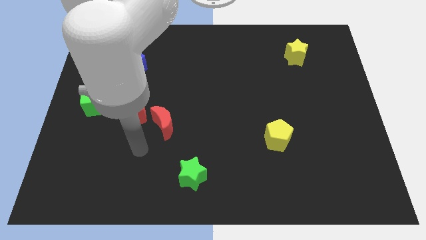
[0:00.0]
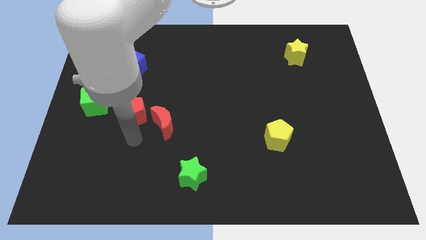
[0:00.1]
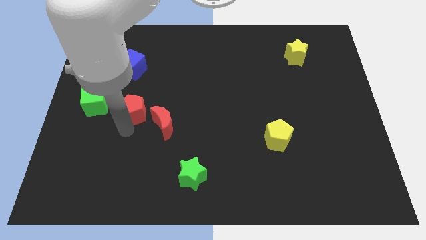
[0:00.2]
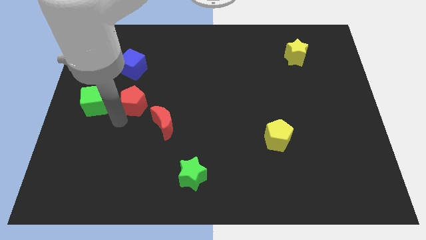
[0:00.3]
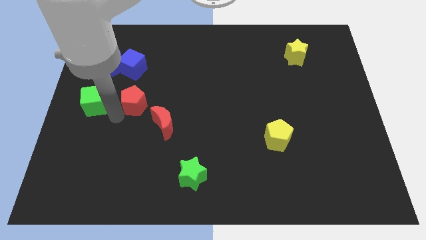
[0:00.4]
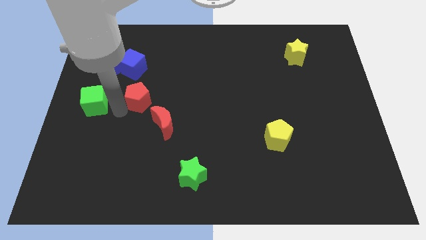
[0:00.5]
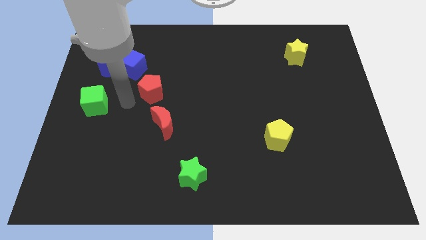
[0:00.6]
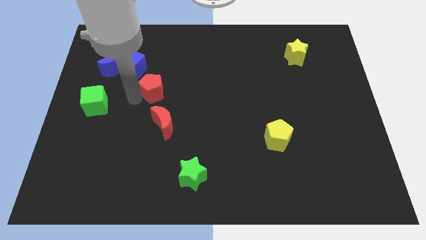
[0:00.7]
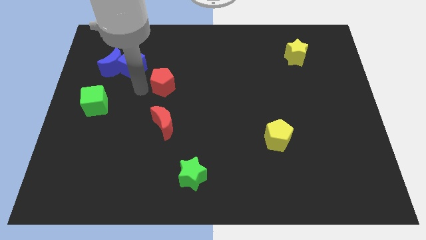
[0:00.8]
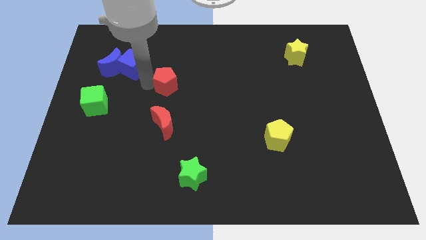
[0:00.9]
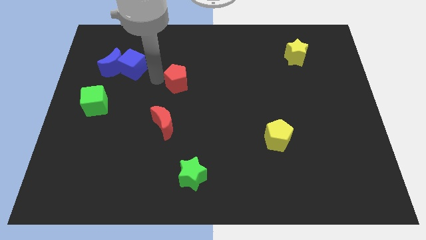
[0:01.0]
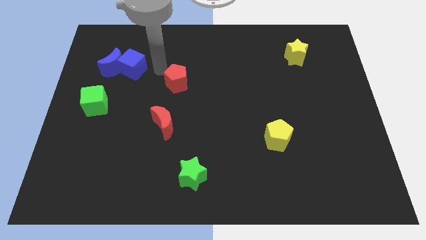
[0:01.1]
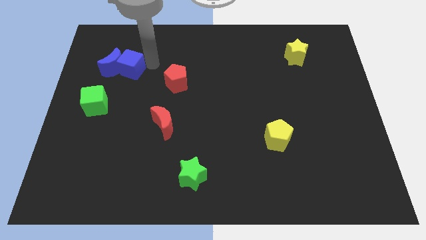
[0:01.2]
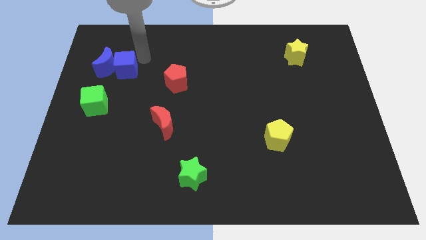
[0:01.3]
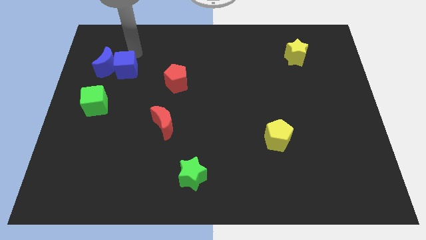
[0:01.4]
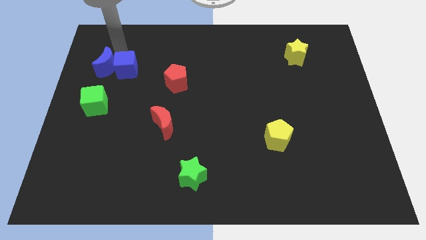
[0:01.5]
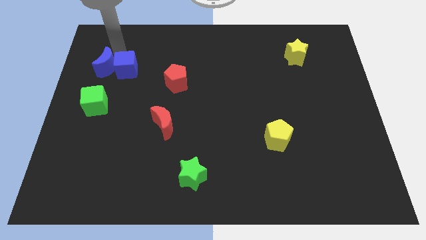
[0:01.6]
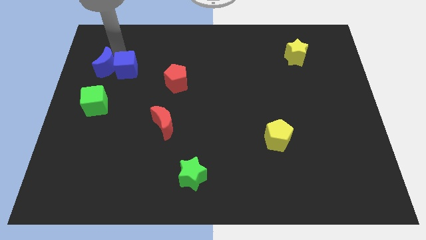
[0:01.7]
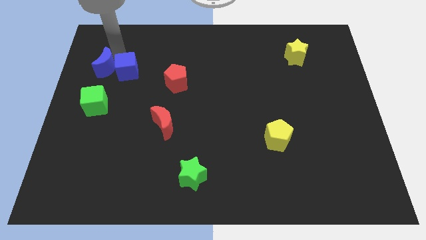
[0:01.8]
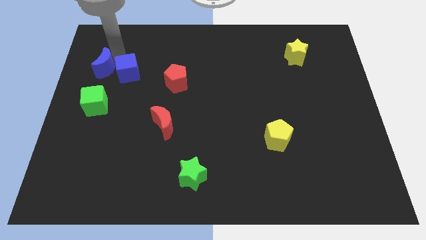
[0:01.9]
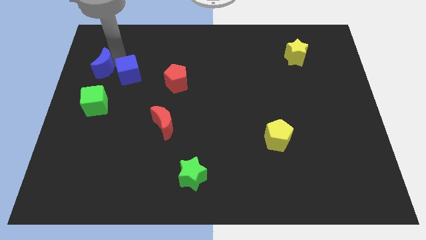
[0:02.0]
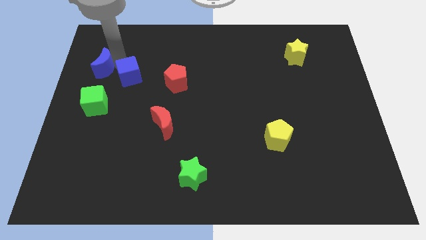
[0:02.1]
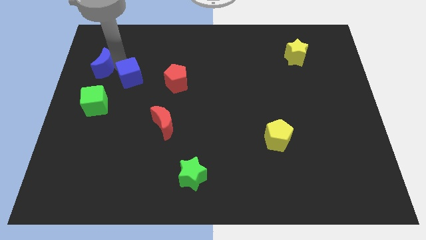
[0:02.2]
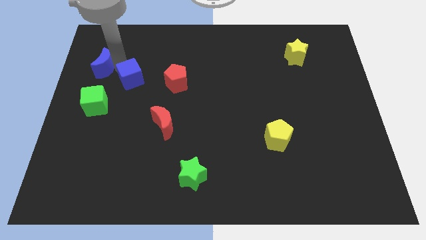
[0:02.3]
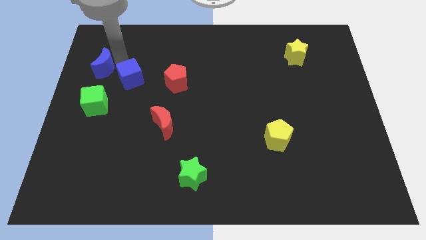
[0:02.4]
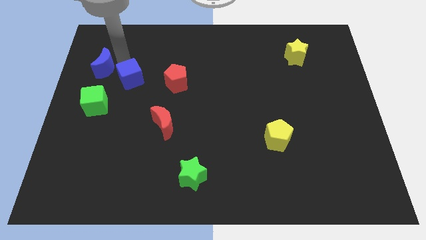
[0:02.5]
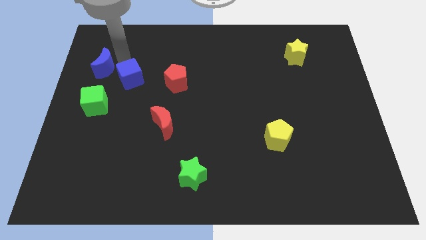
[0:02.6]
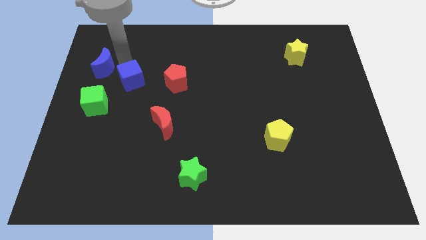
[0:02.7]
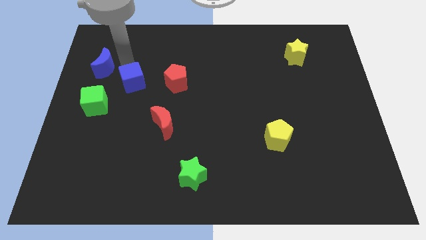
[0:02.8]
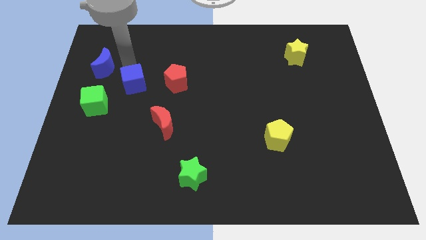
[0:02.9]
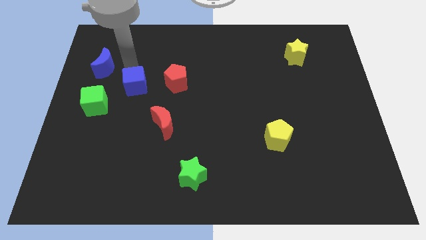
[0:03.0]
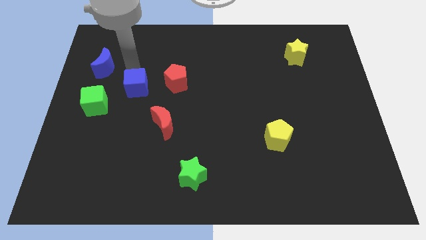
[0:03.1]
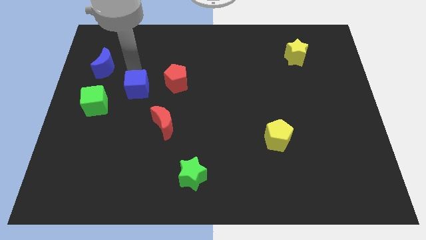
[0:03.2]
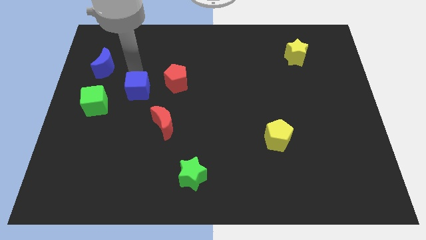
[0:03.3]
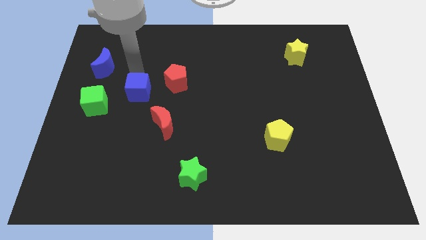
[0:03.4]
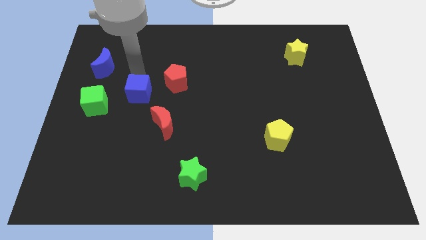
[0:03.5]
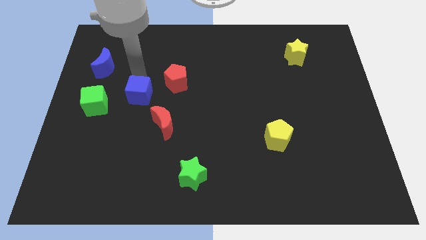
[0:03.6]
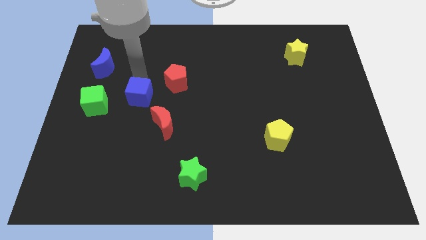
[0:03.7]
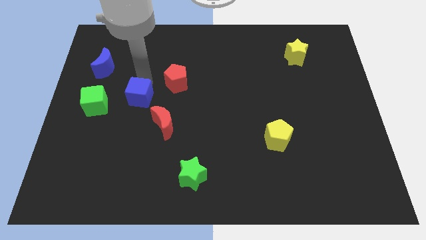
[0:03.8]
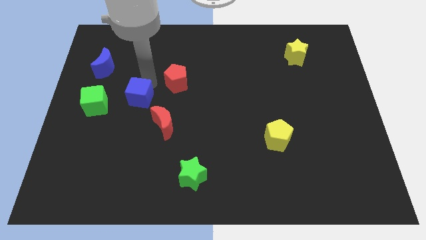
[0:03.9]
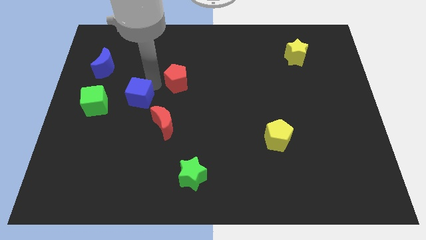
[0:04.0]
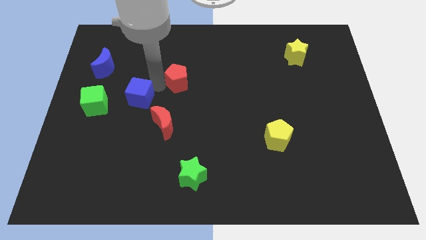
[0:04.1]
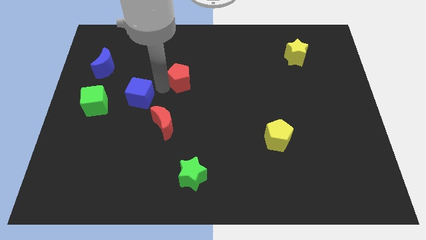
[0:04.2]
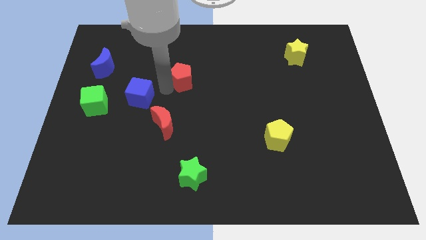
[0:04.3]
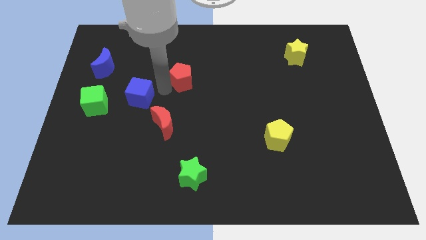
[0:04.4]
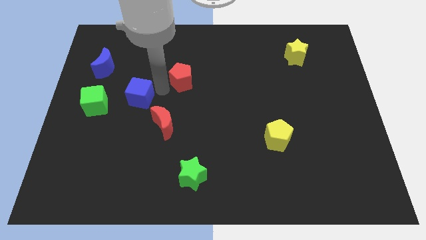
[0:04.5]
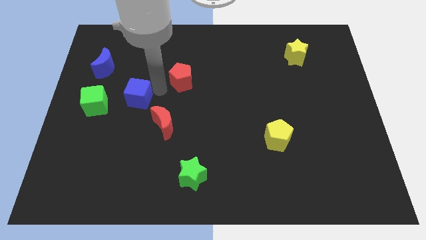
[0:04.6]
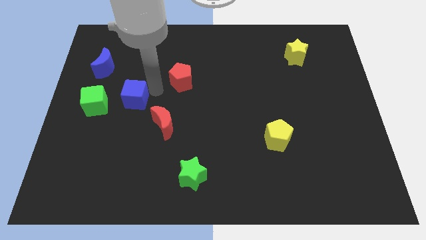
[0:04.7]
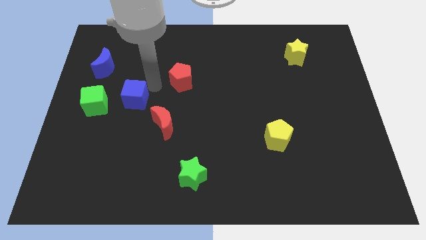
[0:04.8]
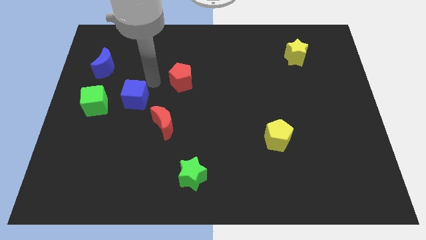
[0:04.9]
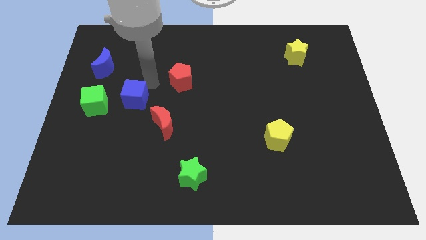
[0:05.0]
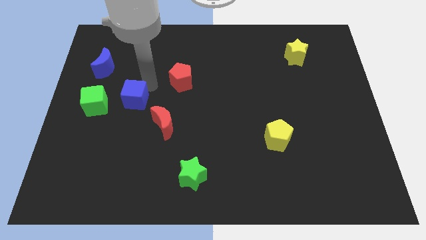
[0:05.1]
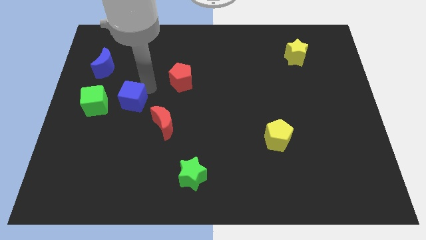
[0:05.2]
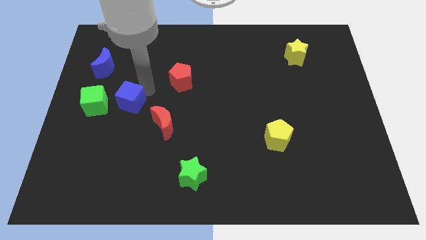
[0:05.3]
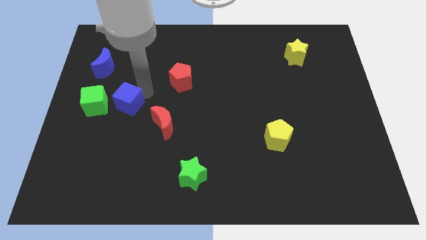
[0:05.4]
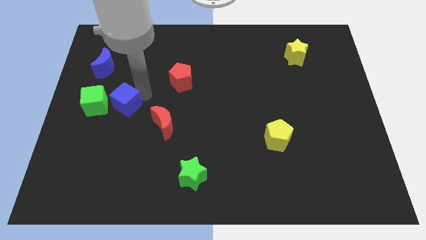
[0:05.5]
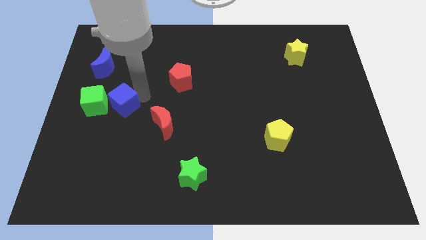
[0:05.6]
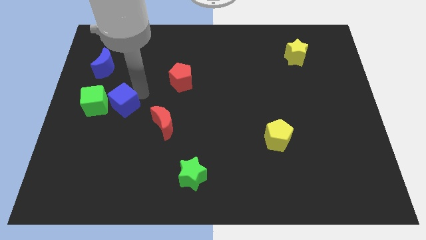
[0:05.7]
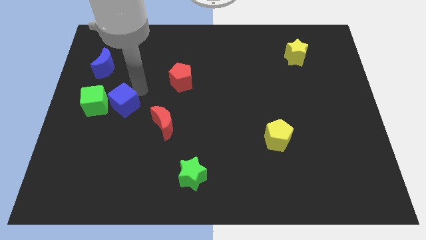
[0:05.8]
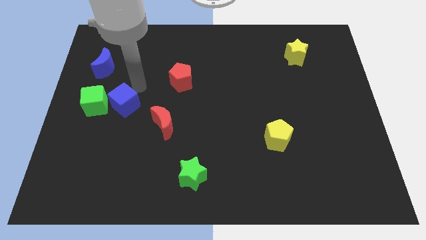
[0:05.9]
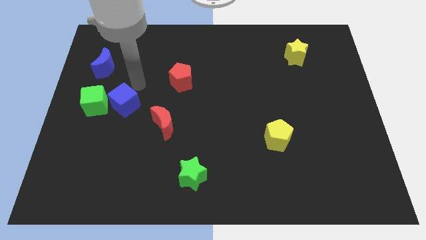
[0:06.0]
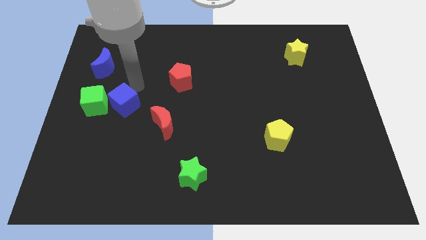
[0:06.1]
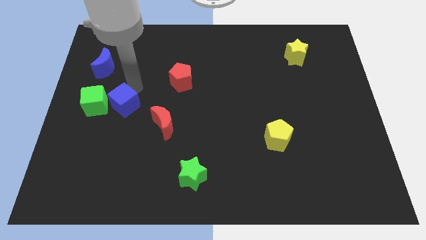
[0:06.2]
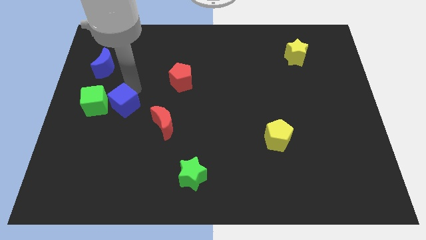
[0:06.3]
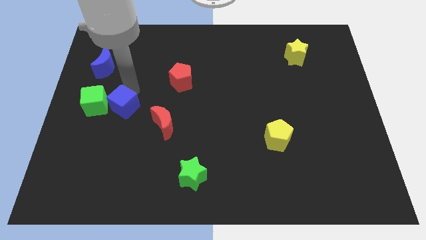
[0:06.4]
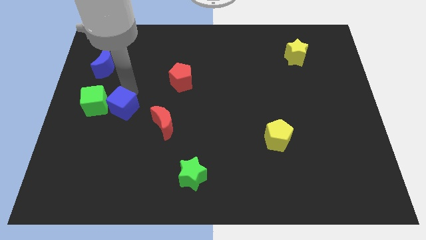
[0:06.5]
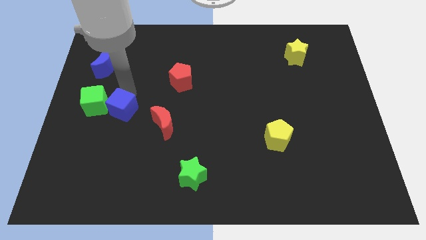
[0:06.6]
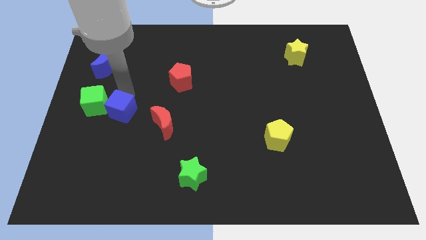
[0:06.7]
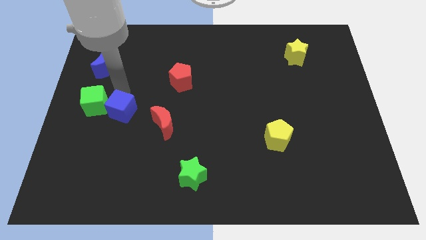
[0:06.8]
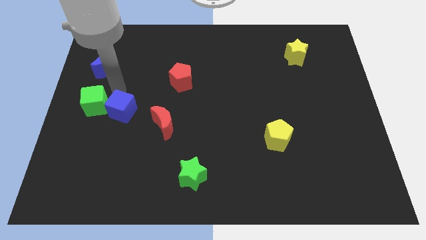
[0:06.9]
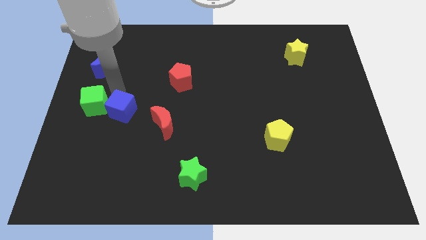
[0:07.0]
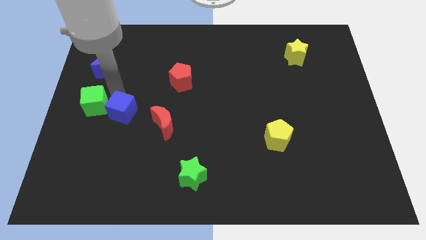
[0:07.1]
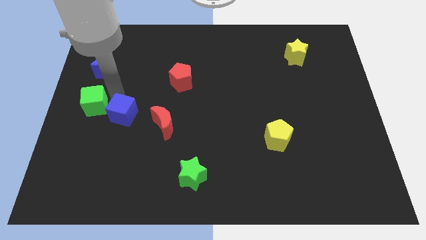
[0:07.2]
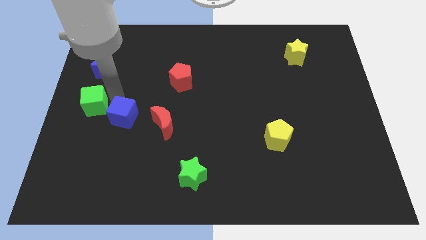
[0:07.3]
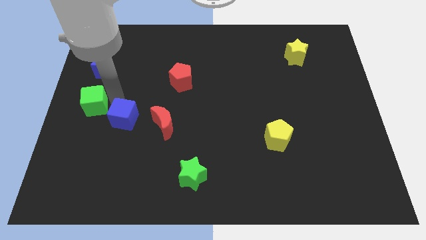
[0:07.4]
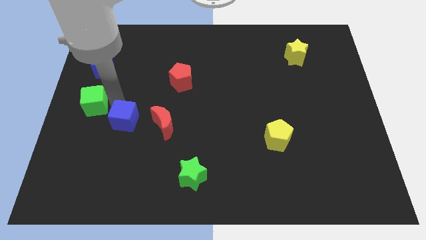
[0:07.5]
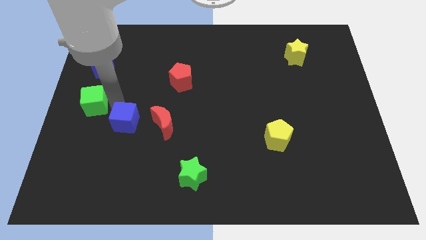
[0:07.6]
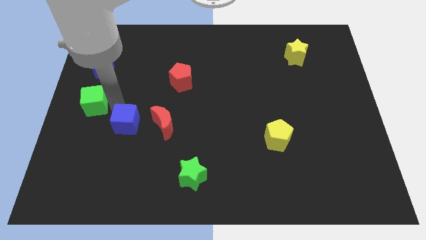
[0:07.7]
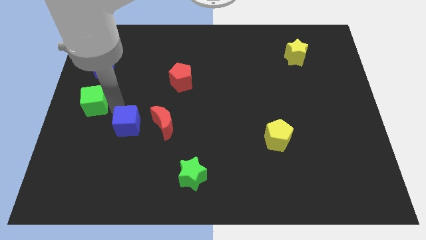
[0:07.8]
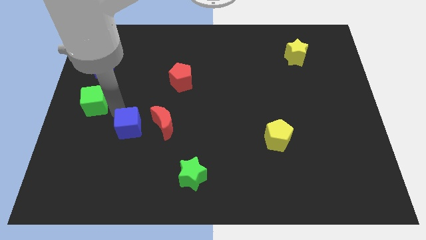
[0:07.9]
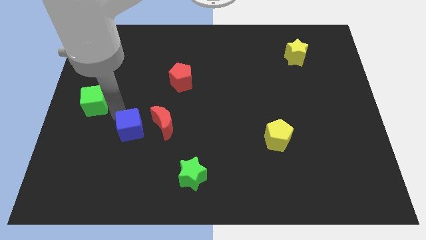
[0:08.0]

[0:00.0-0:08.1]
put the blue cube diagonally down and to the left of the red moon
